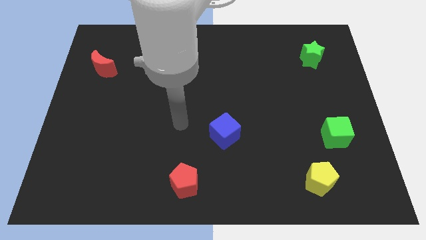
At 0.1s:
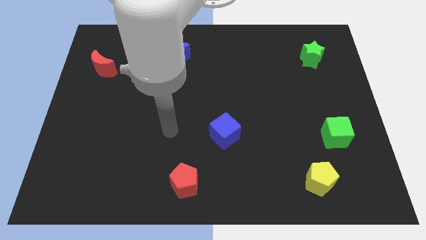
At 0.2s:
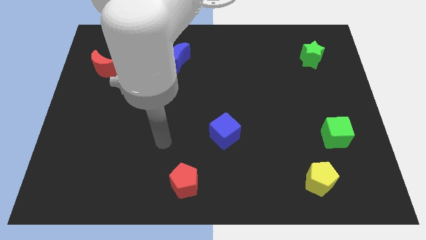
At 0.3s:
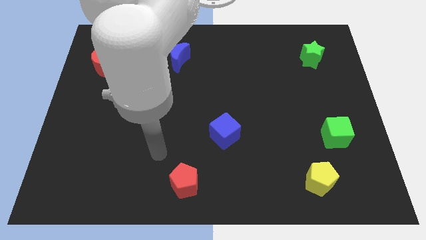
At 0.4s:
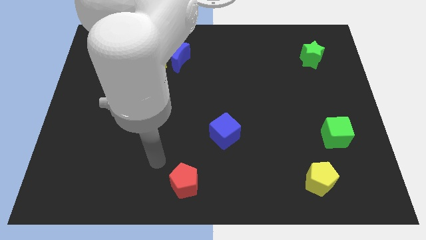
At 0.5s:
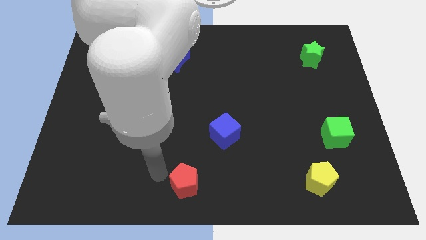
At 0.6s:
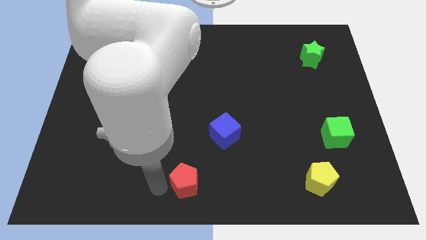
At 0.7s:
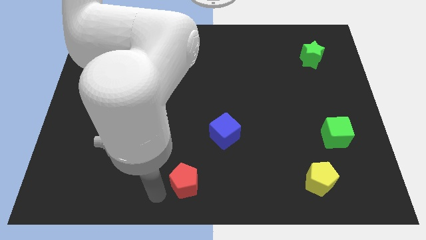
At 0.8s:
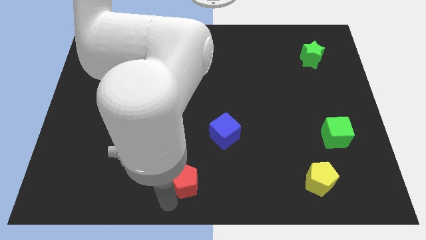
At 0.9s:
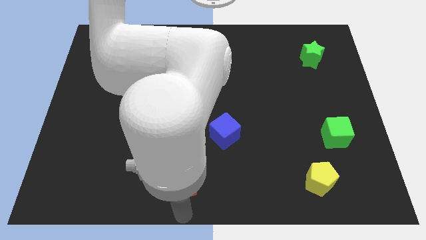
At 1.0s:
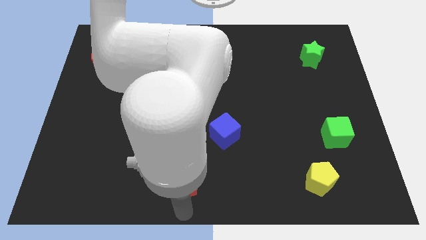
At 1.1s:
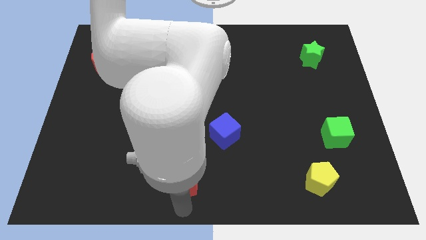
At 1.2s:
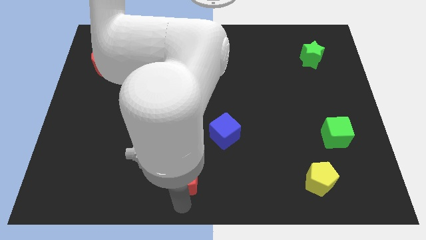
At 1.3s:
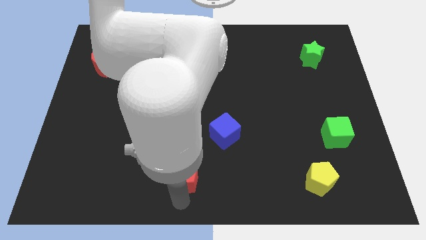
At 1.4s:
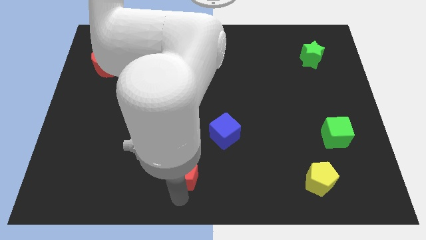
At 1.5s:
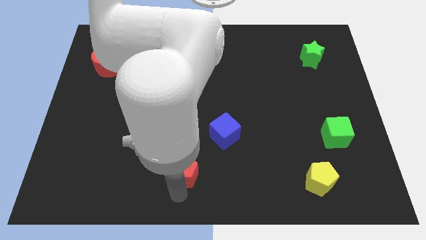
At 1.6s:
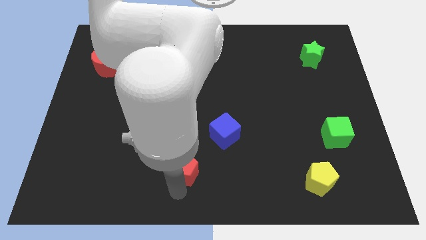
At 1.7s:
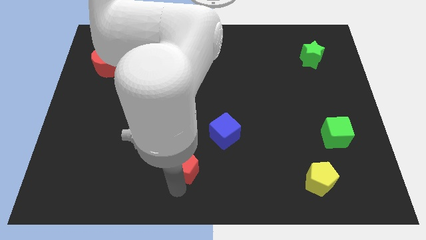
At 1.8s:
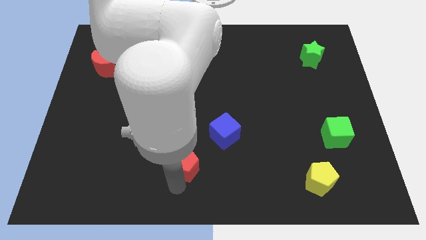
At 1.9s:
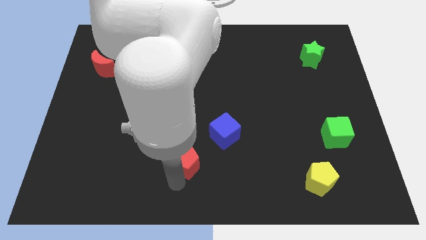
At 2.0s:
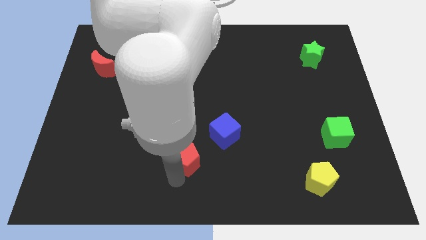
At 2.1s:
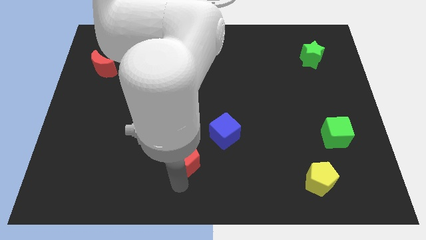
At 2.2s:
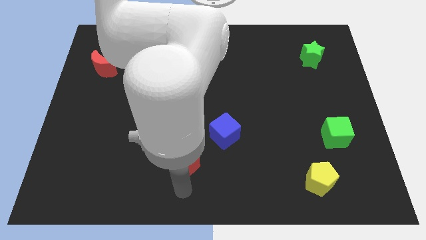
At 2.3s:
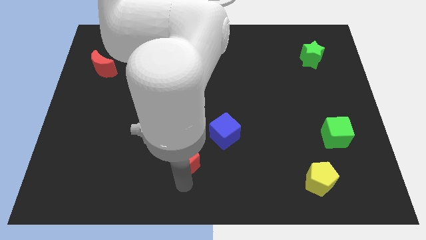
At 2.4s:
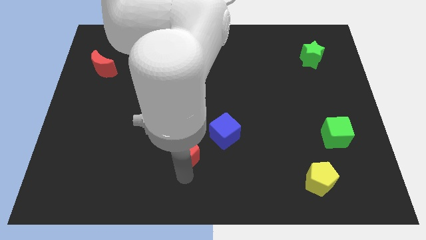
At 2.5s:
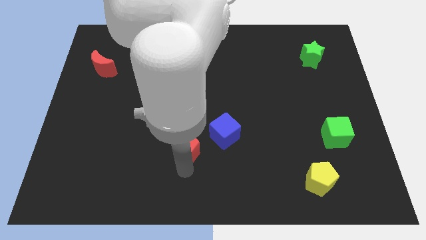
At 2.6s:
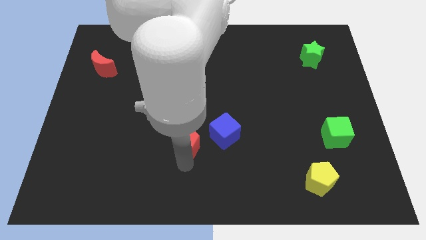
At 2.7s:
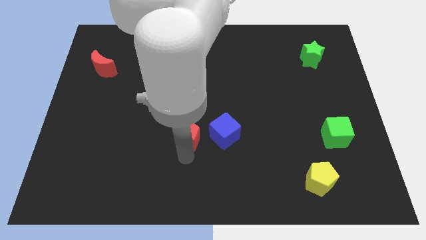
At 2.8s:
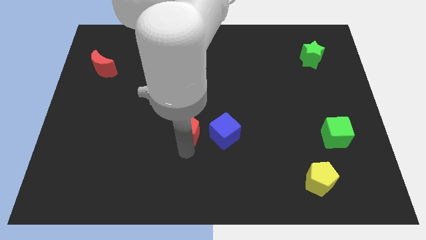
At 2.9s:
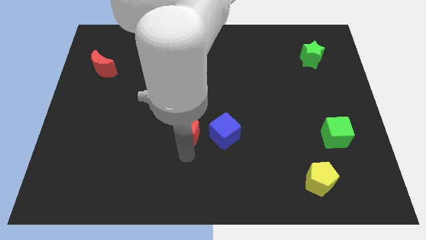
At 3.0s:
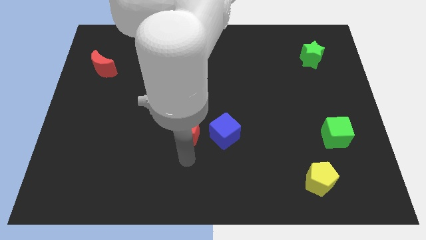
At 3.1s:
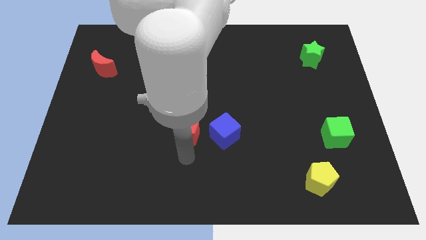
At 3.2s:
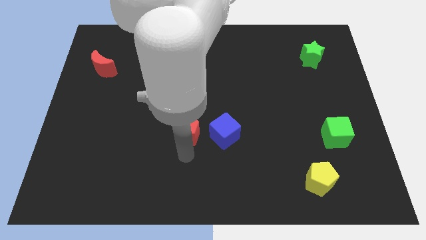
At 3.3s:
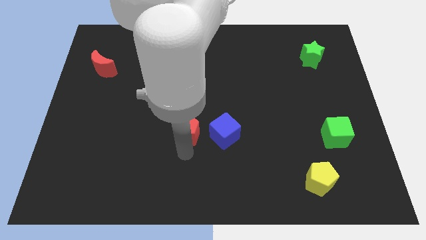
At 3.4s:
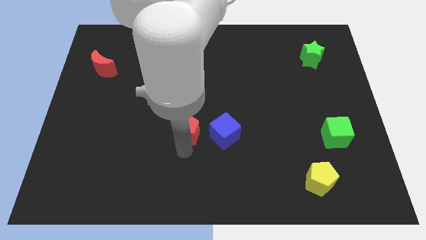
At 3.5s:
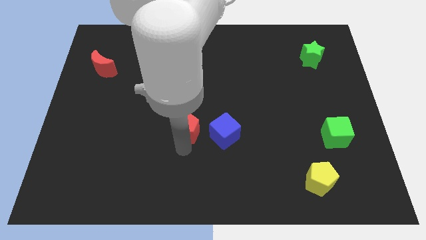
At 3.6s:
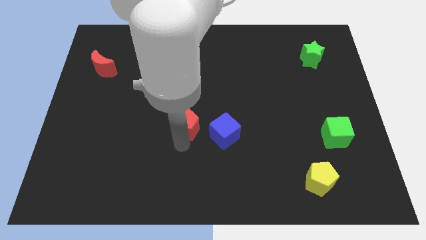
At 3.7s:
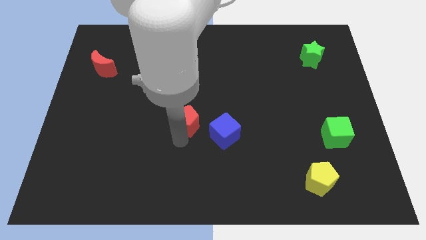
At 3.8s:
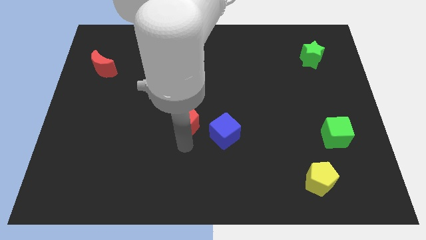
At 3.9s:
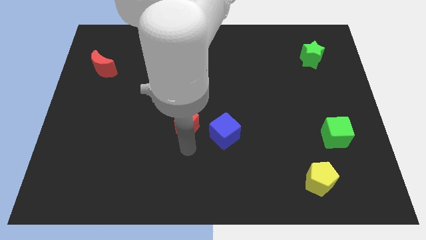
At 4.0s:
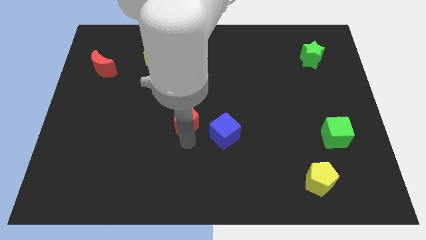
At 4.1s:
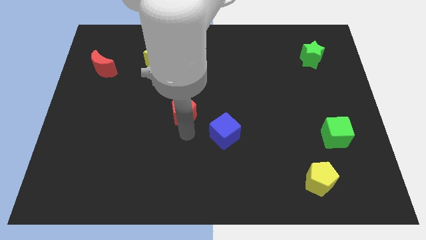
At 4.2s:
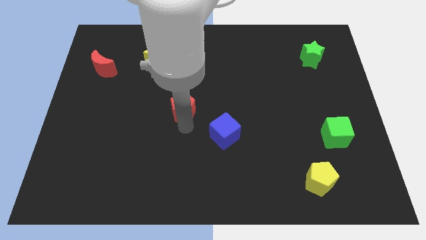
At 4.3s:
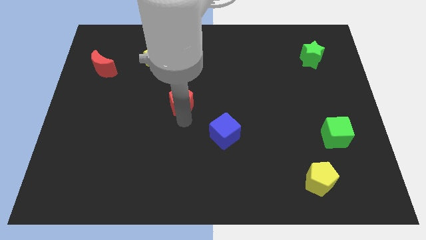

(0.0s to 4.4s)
push the red pentagon upwards

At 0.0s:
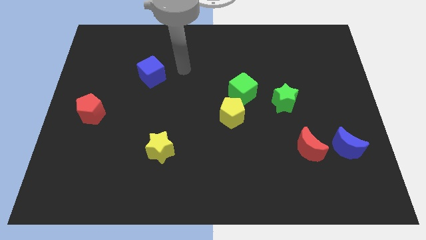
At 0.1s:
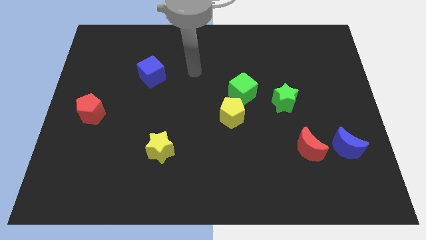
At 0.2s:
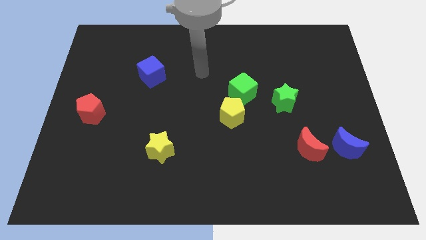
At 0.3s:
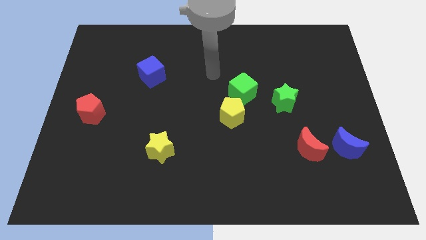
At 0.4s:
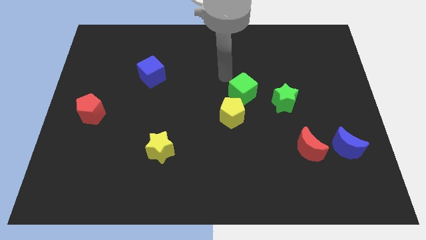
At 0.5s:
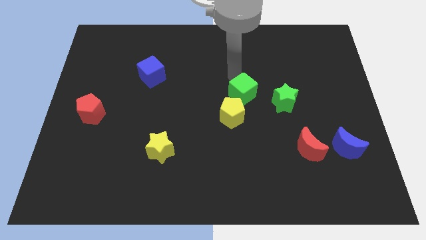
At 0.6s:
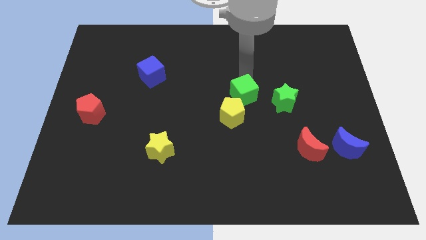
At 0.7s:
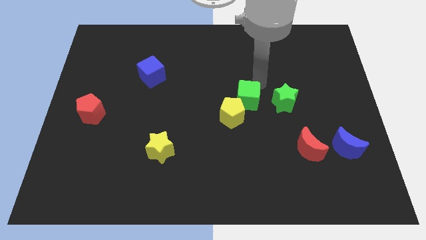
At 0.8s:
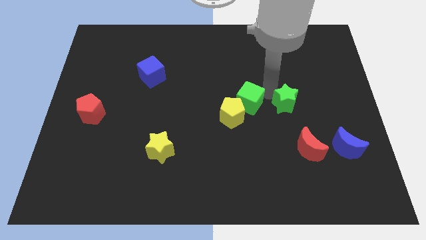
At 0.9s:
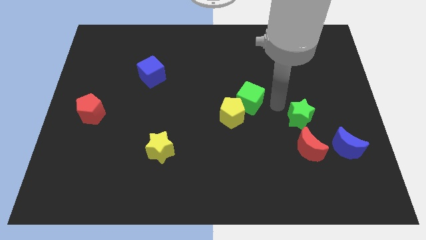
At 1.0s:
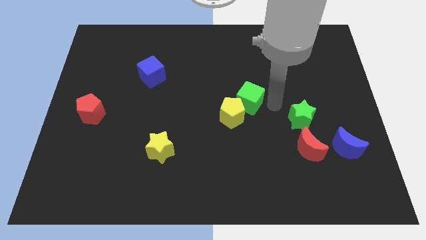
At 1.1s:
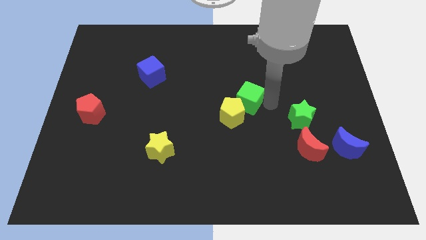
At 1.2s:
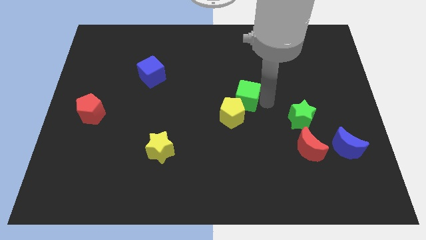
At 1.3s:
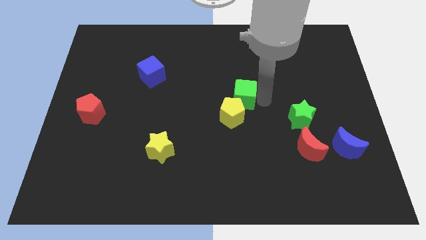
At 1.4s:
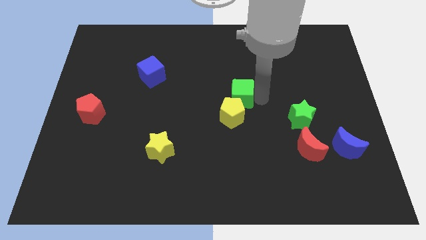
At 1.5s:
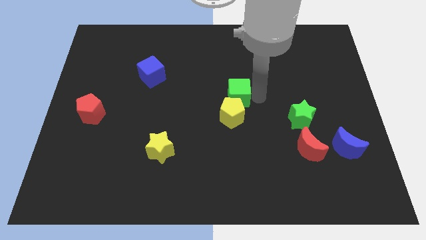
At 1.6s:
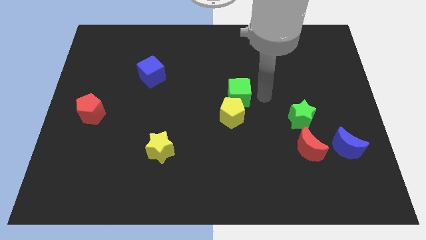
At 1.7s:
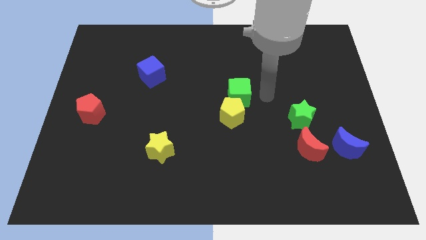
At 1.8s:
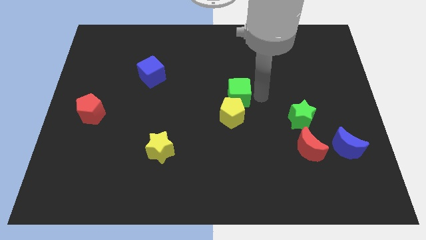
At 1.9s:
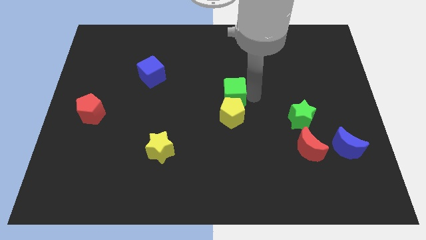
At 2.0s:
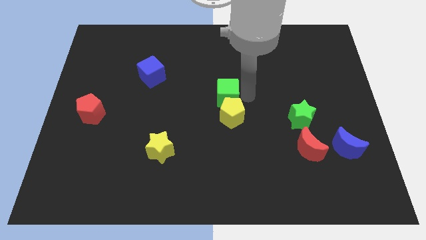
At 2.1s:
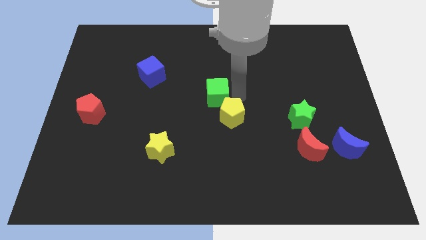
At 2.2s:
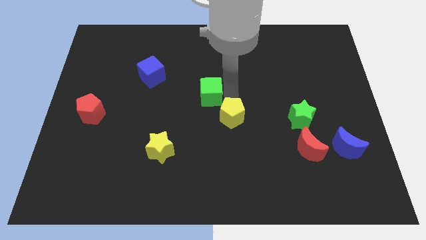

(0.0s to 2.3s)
push the green cube slightly to the left

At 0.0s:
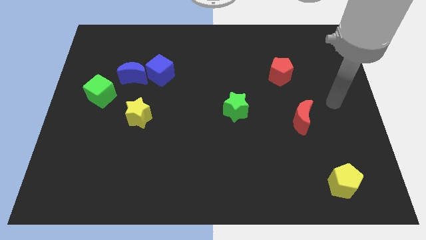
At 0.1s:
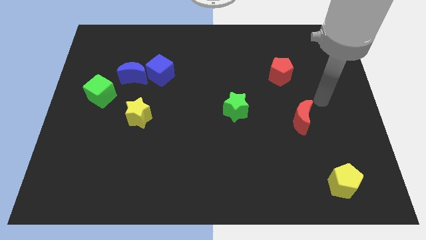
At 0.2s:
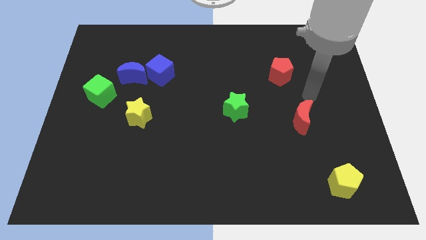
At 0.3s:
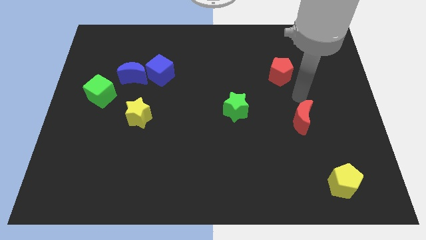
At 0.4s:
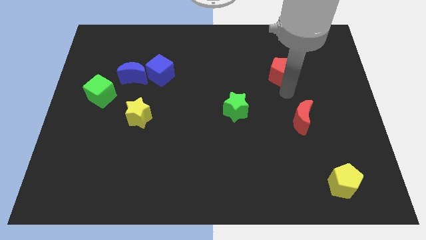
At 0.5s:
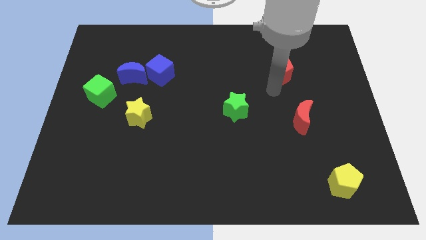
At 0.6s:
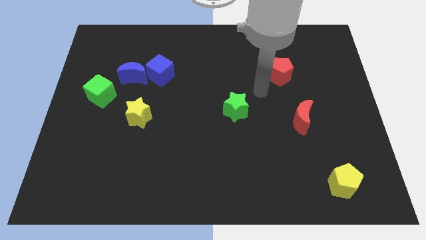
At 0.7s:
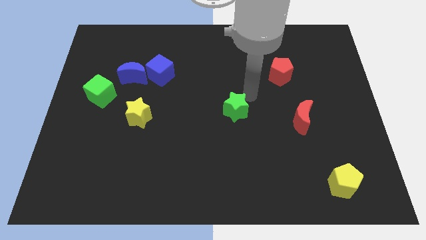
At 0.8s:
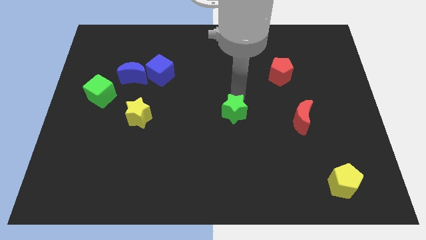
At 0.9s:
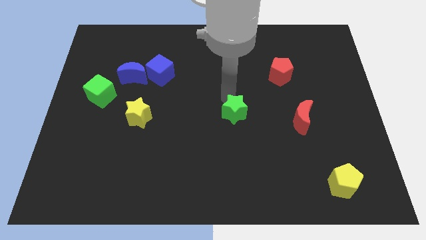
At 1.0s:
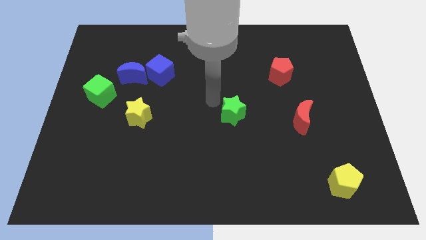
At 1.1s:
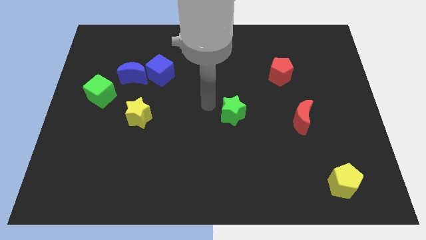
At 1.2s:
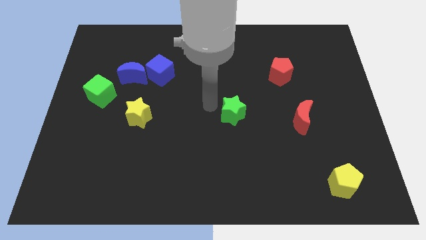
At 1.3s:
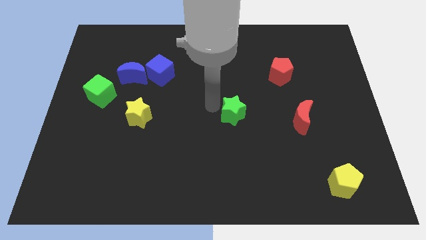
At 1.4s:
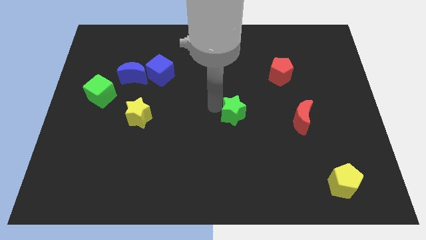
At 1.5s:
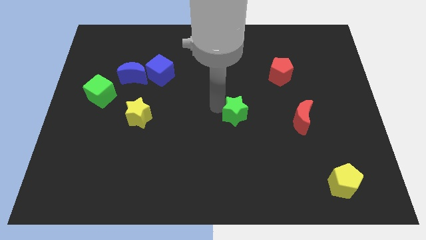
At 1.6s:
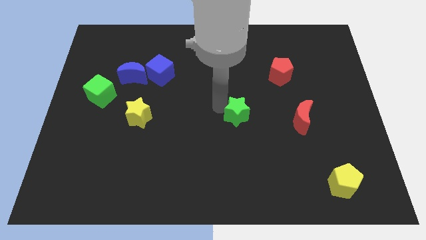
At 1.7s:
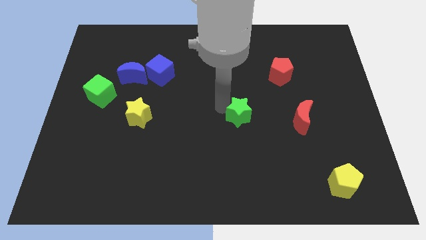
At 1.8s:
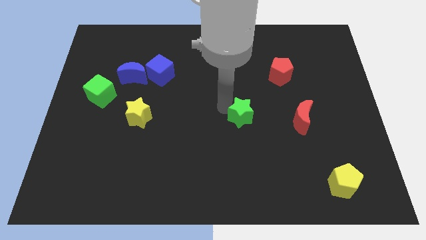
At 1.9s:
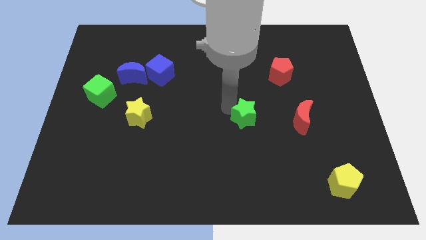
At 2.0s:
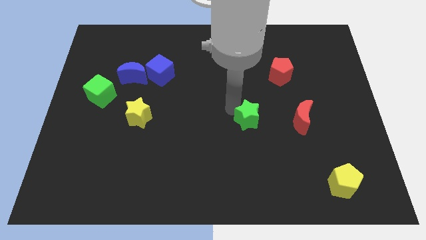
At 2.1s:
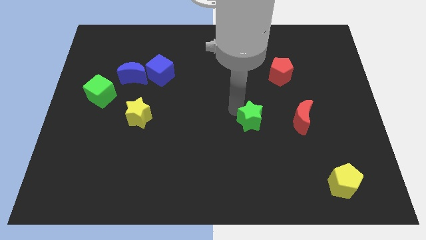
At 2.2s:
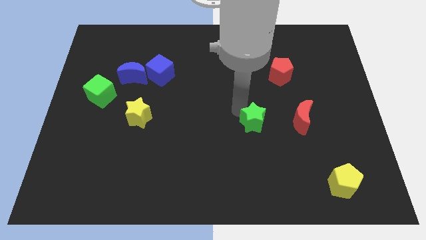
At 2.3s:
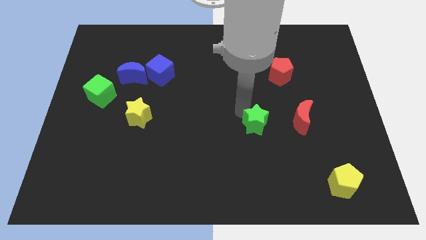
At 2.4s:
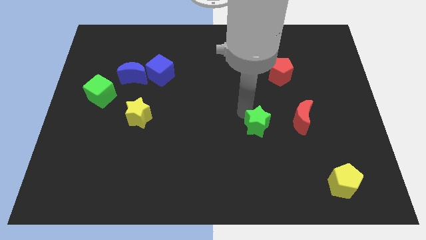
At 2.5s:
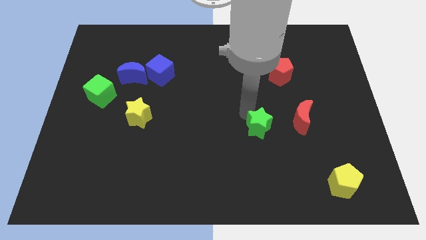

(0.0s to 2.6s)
slide the green star diagonally downwards and to the right a little bit
